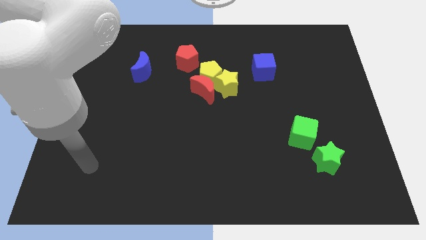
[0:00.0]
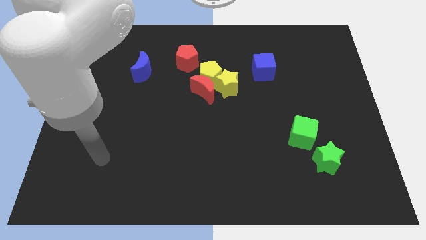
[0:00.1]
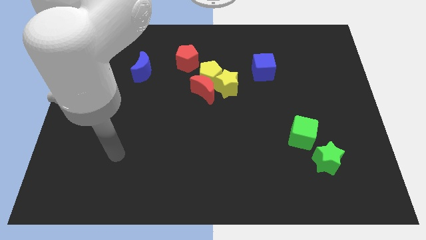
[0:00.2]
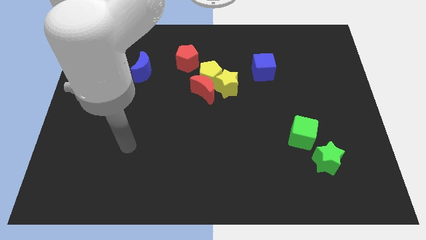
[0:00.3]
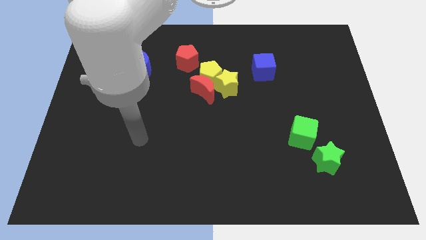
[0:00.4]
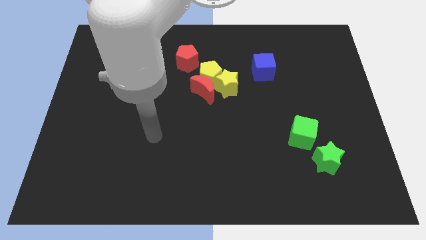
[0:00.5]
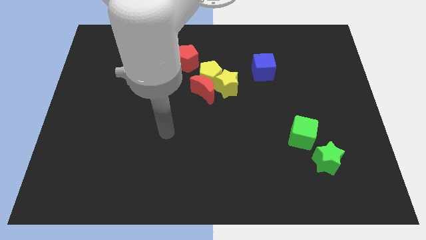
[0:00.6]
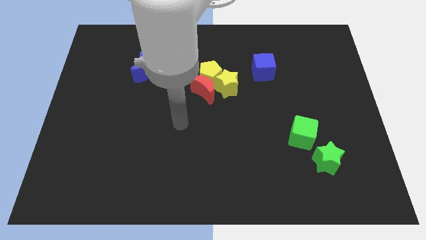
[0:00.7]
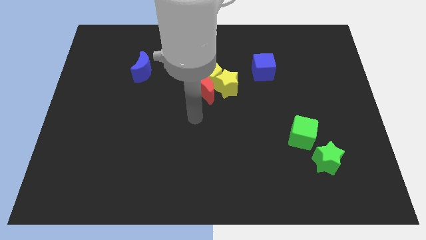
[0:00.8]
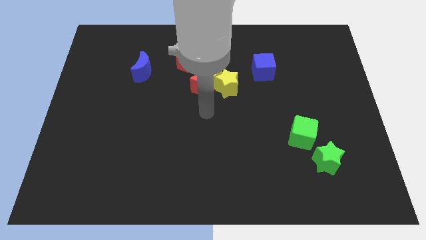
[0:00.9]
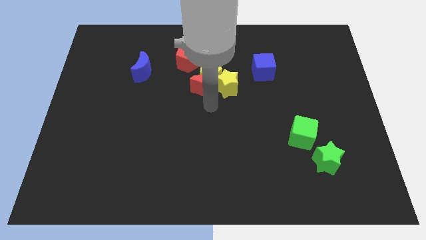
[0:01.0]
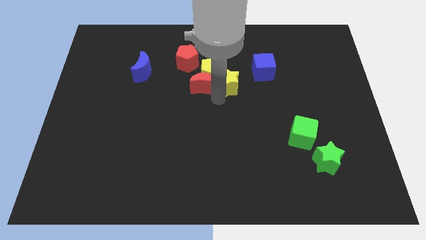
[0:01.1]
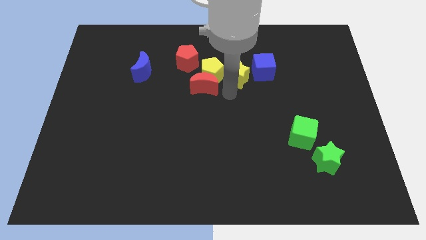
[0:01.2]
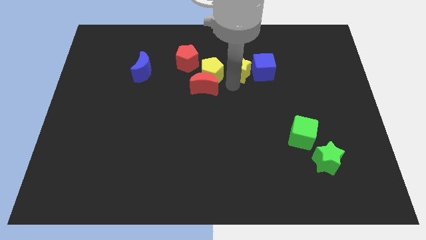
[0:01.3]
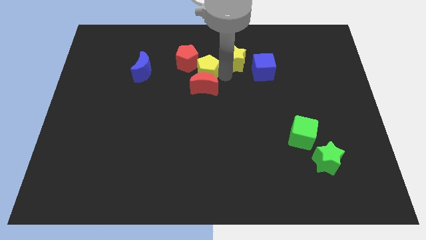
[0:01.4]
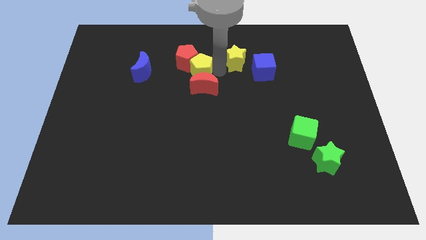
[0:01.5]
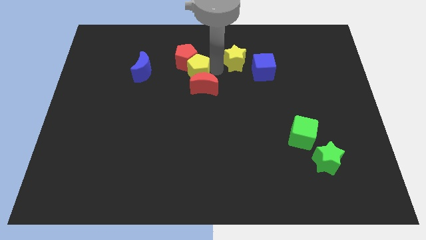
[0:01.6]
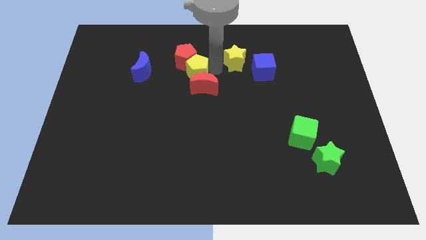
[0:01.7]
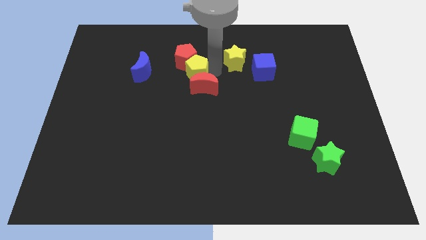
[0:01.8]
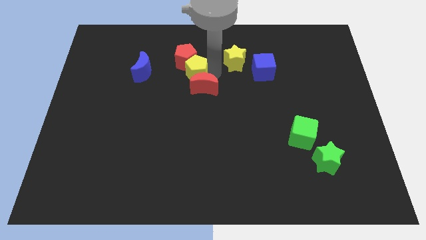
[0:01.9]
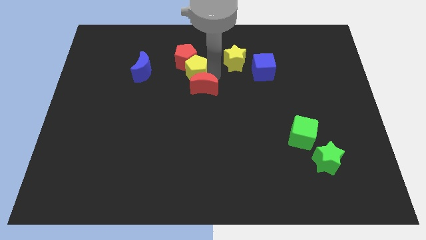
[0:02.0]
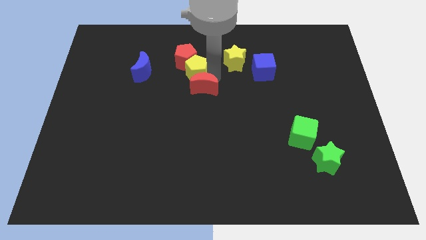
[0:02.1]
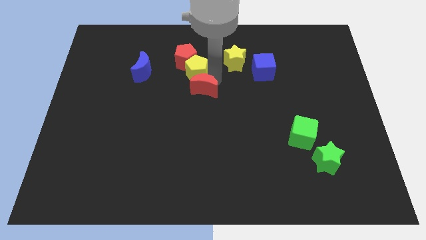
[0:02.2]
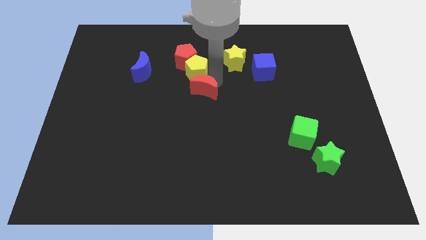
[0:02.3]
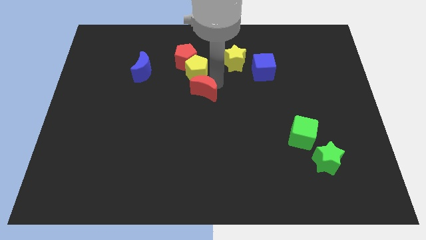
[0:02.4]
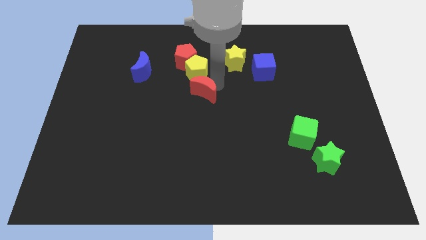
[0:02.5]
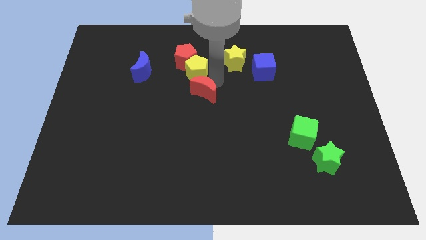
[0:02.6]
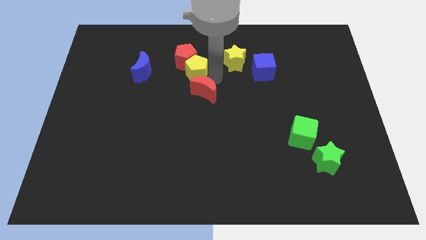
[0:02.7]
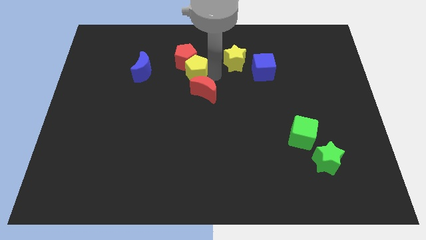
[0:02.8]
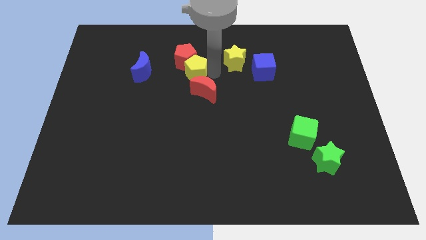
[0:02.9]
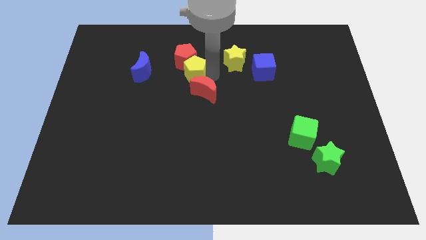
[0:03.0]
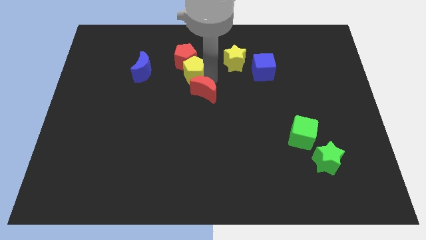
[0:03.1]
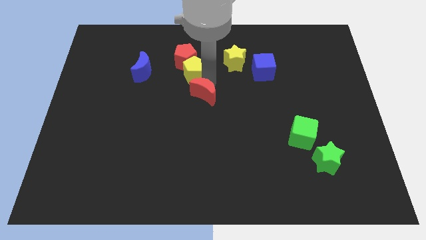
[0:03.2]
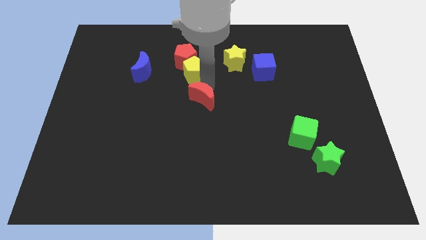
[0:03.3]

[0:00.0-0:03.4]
move the red moon away from the yellow pentagon and yellow star

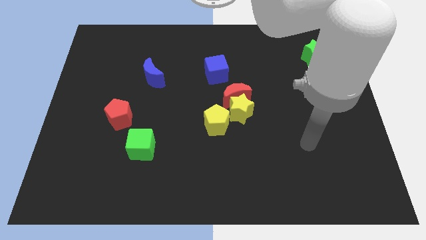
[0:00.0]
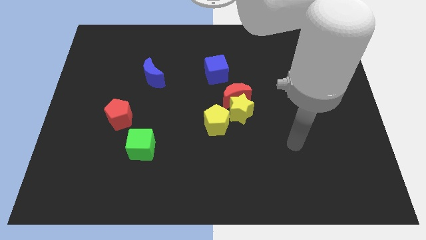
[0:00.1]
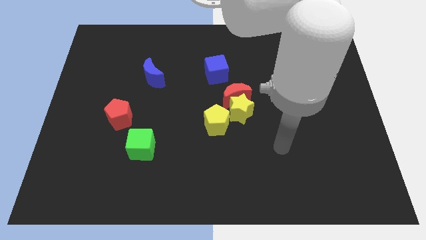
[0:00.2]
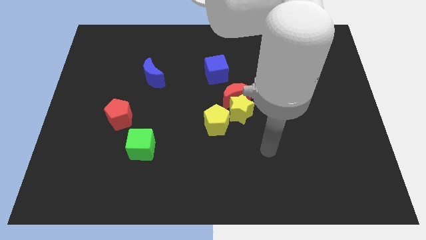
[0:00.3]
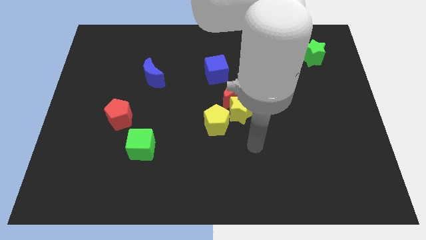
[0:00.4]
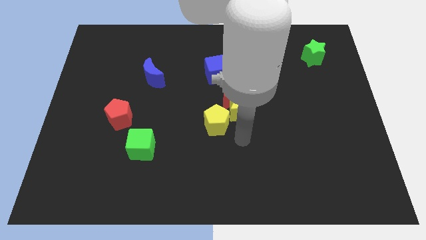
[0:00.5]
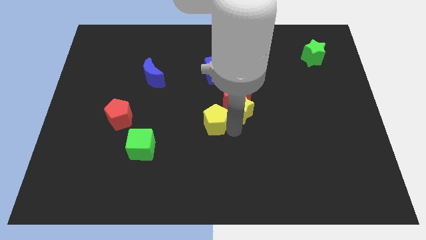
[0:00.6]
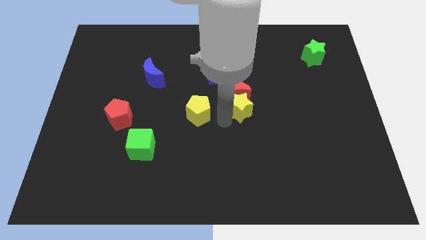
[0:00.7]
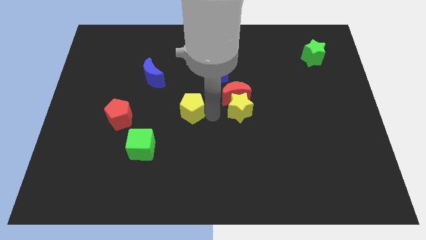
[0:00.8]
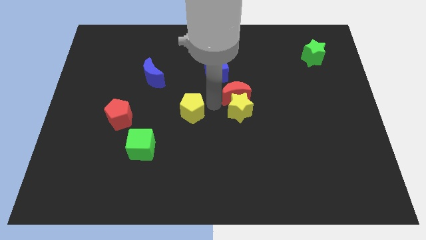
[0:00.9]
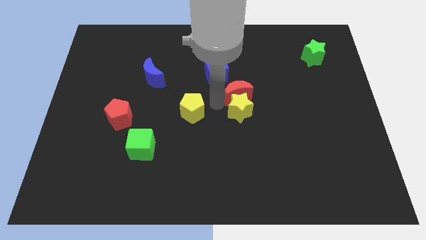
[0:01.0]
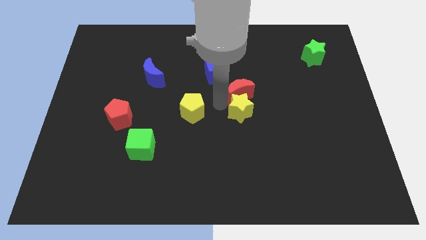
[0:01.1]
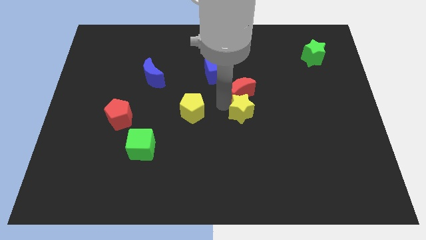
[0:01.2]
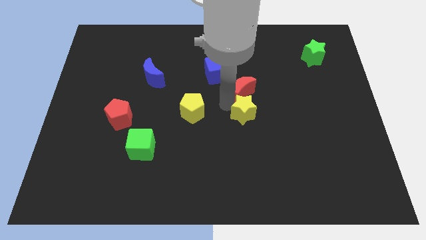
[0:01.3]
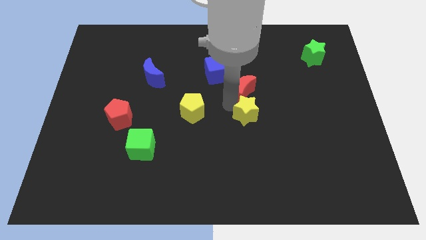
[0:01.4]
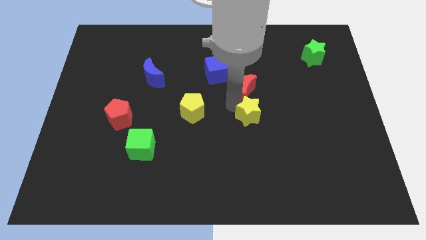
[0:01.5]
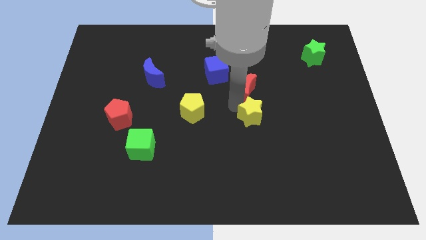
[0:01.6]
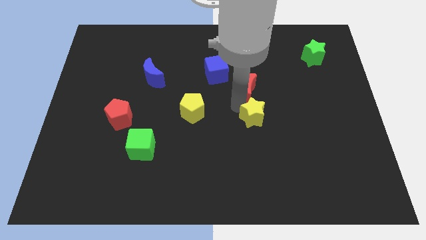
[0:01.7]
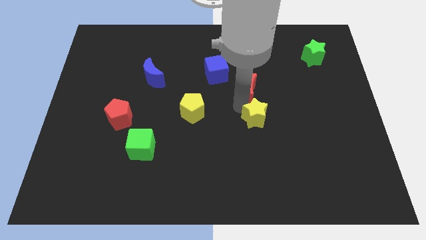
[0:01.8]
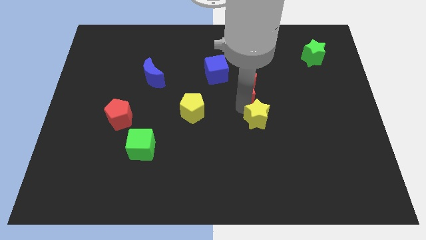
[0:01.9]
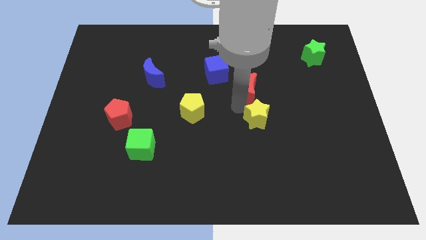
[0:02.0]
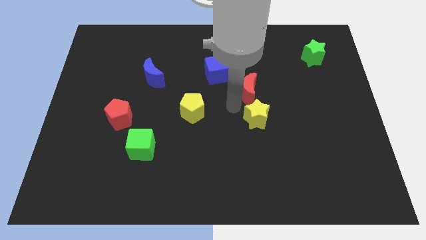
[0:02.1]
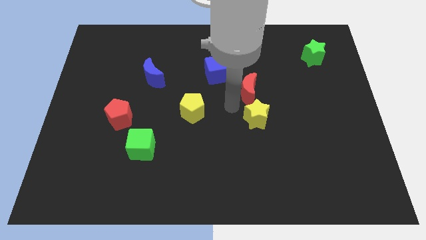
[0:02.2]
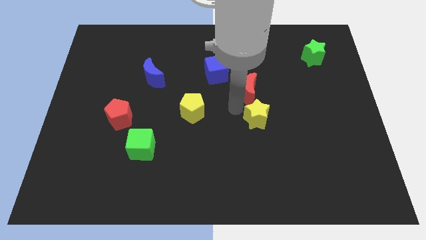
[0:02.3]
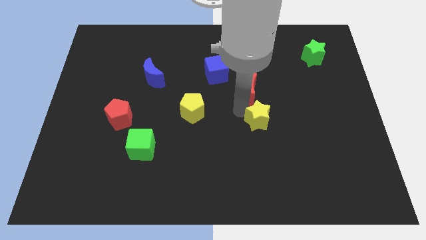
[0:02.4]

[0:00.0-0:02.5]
pull the yellow star apart from the red moon and yellow pentagon

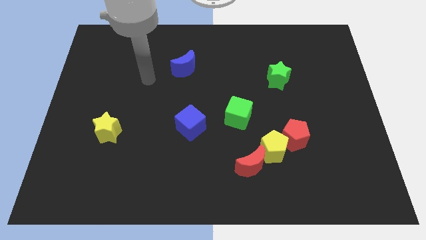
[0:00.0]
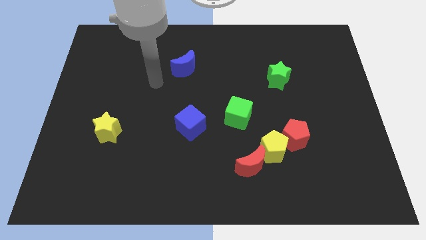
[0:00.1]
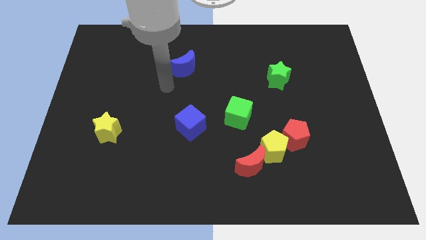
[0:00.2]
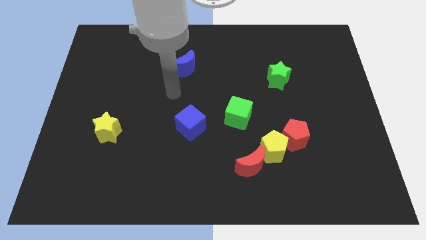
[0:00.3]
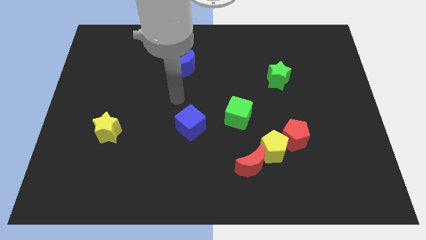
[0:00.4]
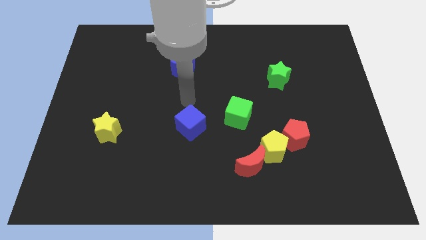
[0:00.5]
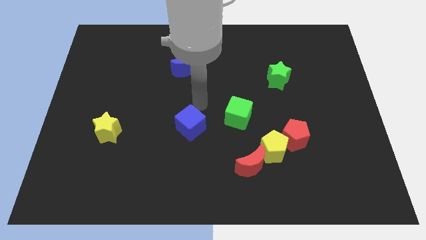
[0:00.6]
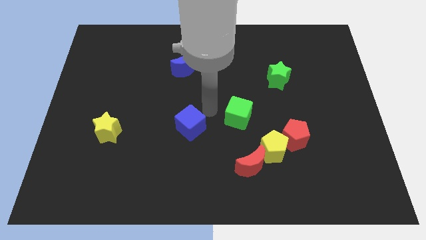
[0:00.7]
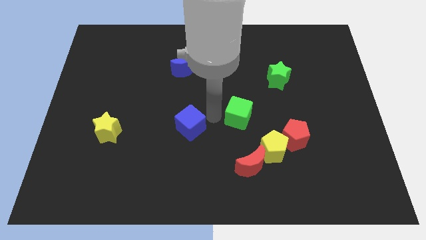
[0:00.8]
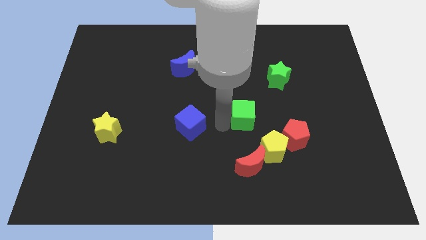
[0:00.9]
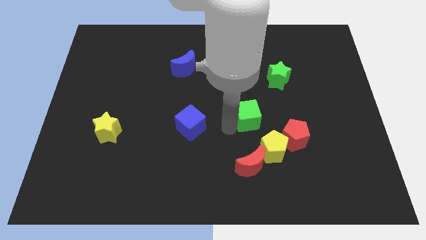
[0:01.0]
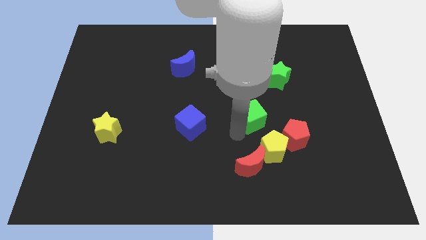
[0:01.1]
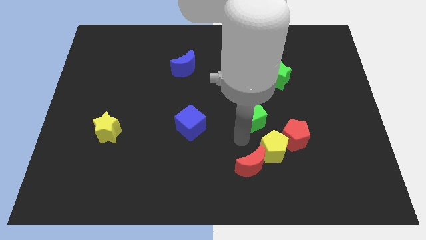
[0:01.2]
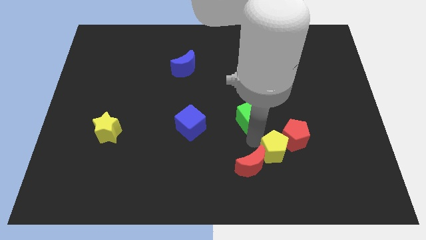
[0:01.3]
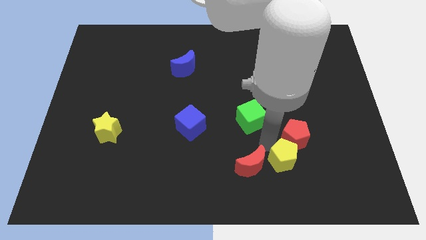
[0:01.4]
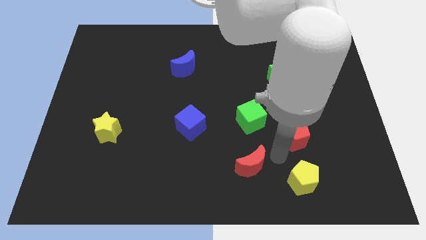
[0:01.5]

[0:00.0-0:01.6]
pull the red pentagon apart from the yellow pentagon

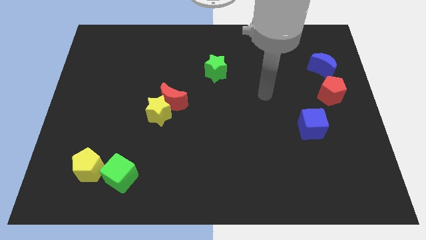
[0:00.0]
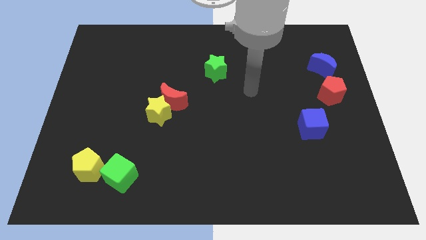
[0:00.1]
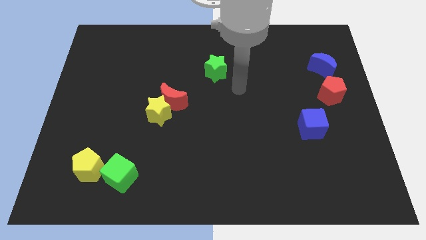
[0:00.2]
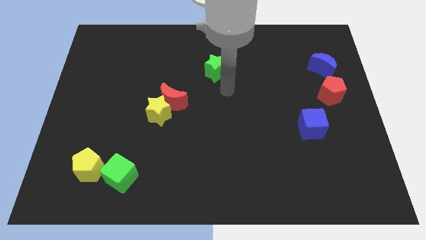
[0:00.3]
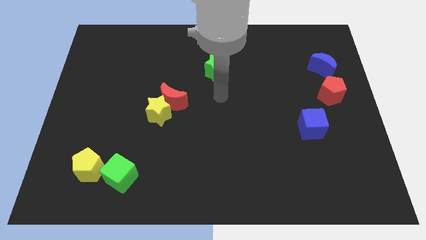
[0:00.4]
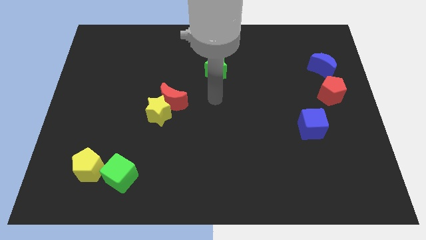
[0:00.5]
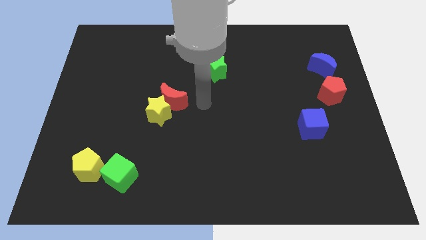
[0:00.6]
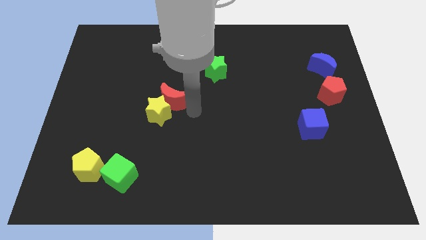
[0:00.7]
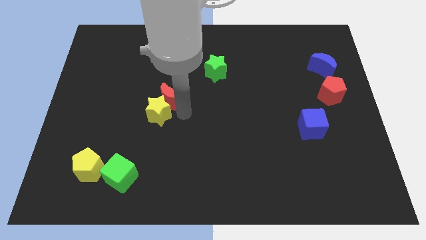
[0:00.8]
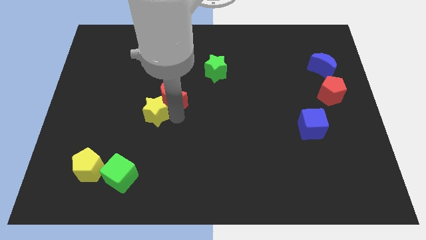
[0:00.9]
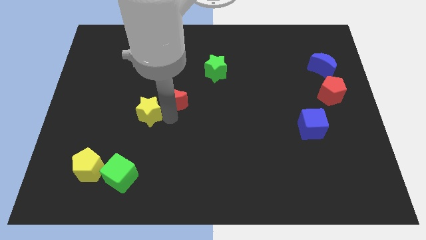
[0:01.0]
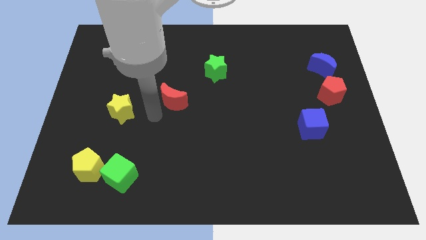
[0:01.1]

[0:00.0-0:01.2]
pull the red moon apart from the yellow star

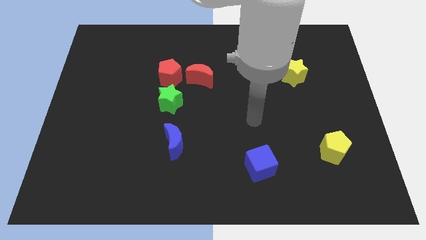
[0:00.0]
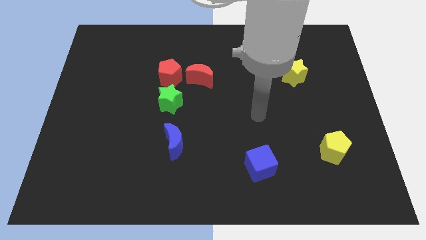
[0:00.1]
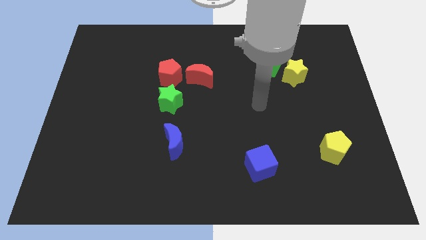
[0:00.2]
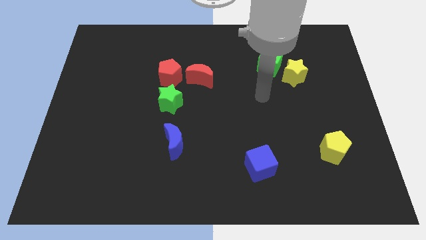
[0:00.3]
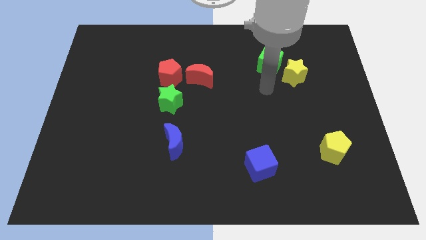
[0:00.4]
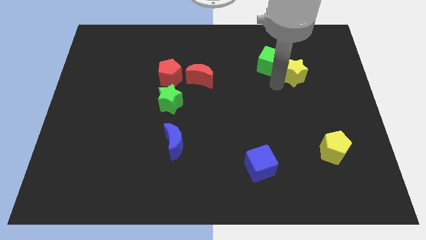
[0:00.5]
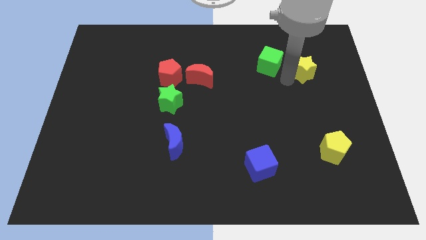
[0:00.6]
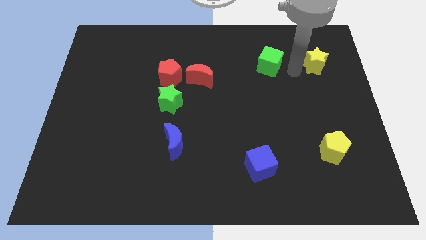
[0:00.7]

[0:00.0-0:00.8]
move the green cube away from the yellow star
